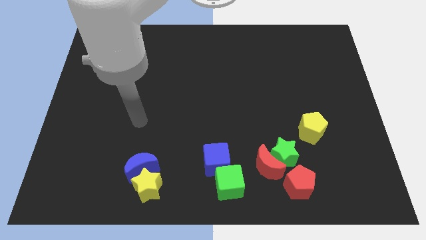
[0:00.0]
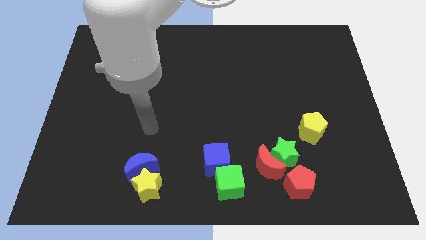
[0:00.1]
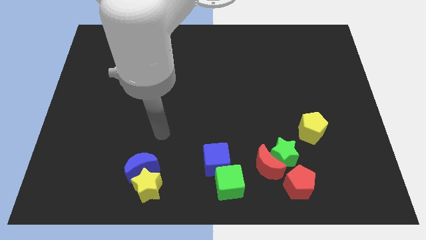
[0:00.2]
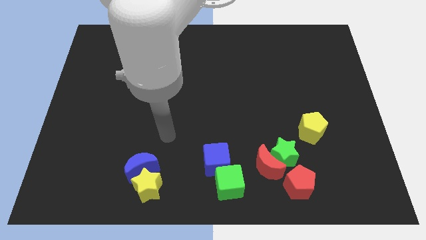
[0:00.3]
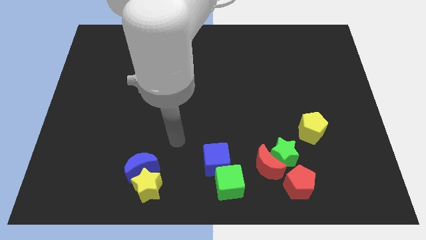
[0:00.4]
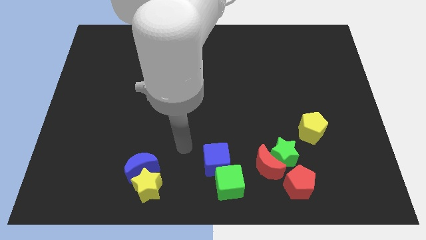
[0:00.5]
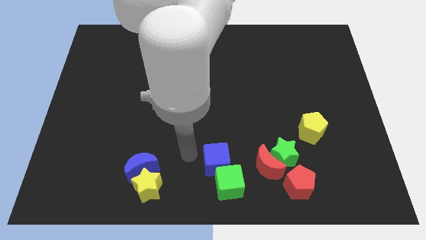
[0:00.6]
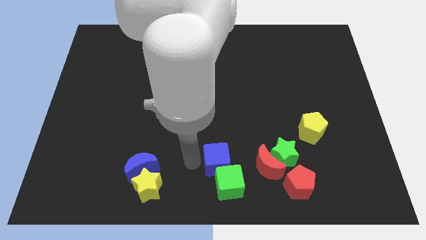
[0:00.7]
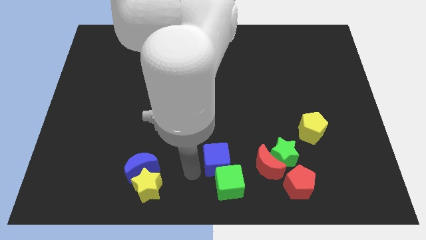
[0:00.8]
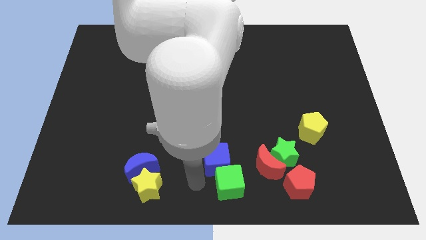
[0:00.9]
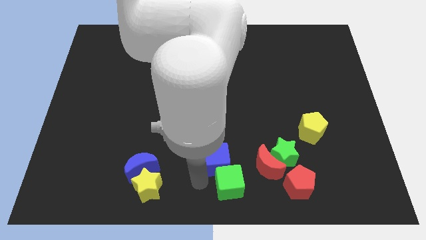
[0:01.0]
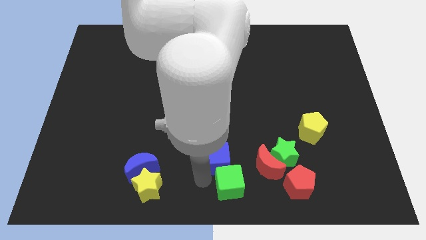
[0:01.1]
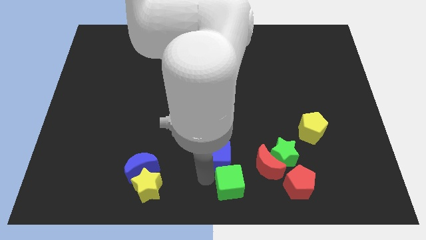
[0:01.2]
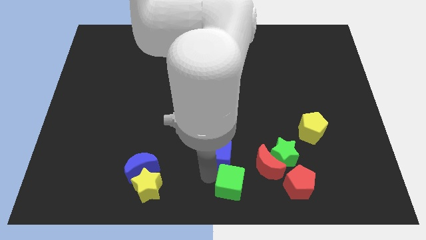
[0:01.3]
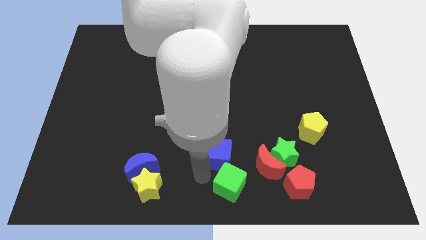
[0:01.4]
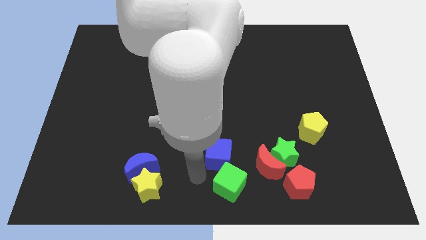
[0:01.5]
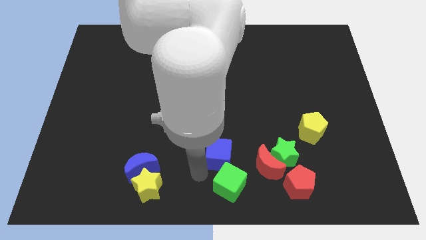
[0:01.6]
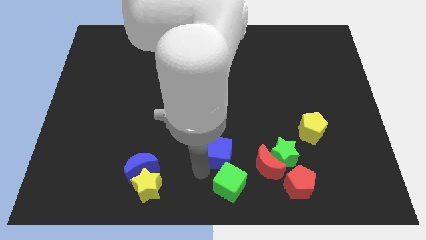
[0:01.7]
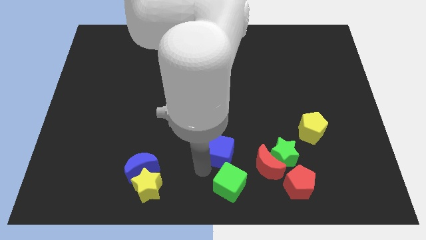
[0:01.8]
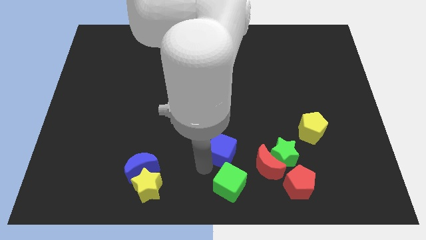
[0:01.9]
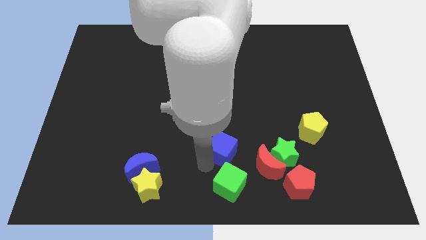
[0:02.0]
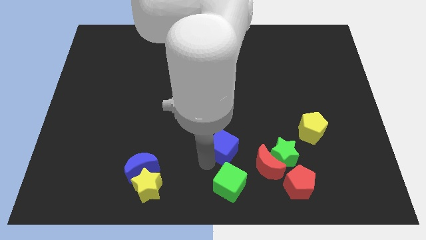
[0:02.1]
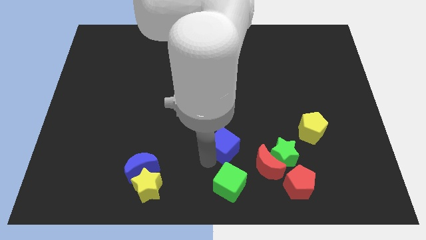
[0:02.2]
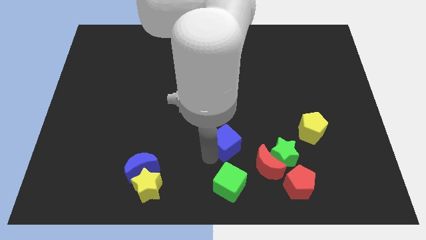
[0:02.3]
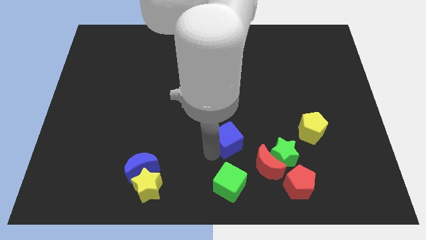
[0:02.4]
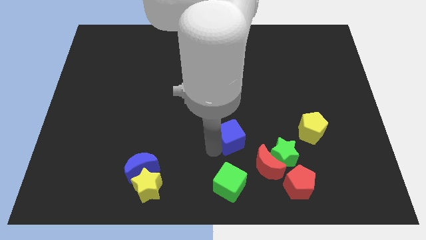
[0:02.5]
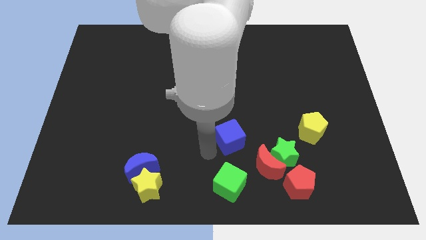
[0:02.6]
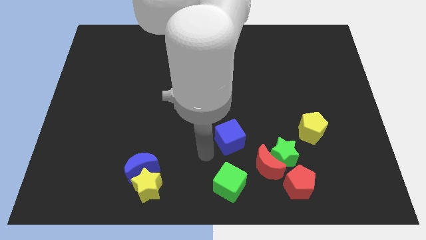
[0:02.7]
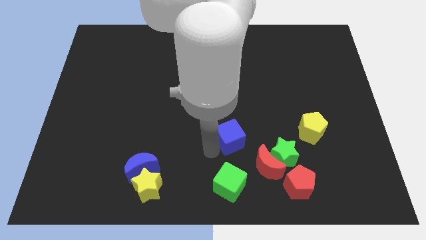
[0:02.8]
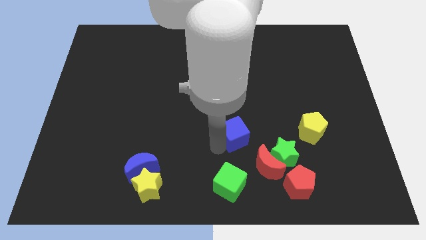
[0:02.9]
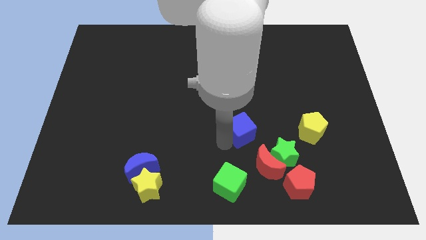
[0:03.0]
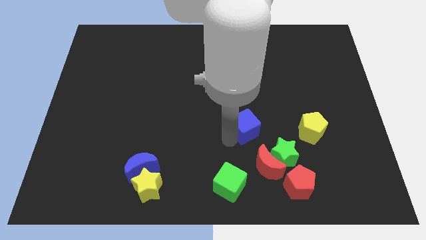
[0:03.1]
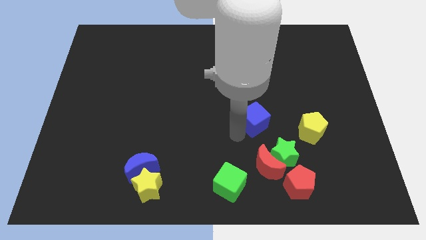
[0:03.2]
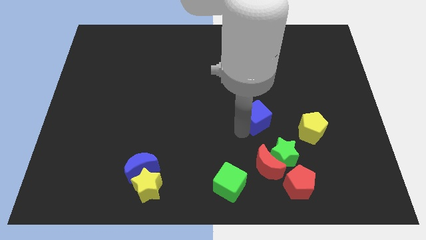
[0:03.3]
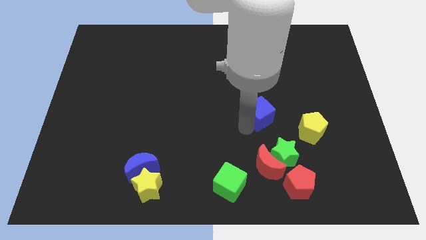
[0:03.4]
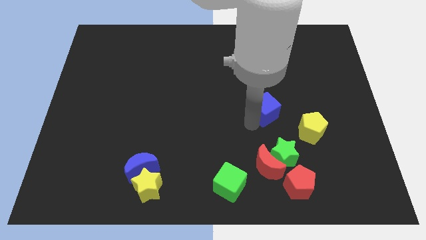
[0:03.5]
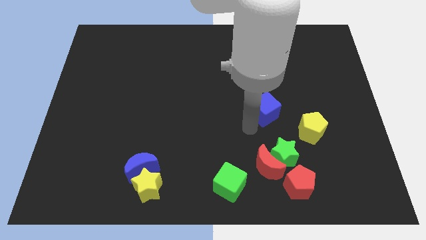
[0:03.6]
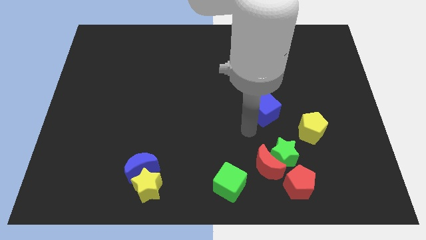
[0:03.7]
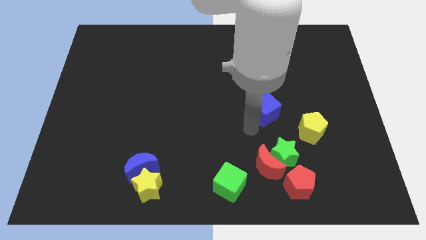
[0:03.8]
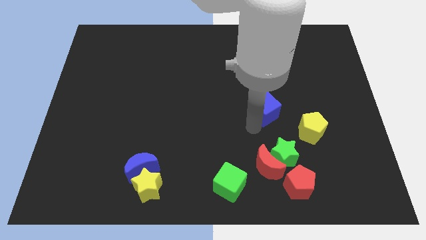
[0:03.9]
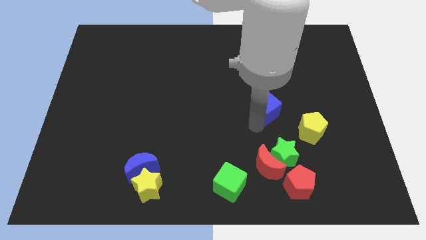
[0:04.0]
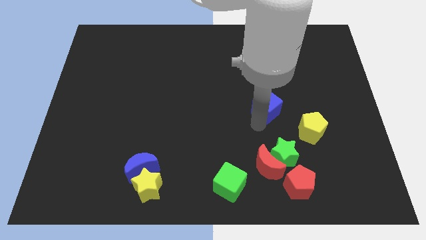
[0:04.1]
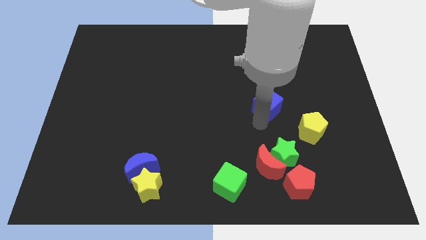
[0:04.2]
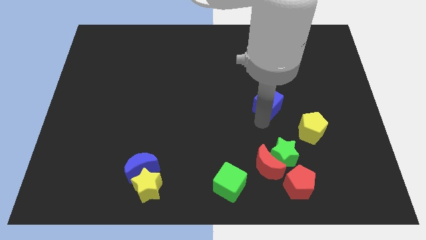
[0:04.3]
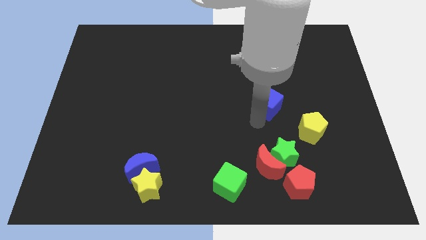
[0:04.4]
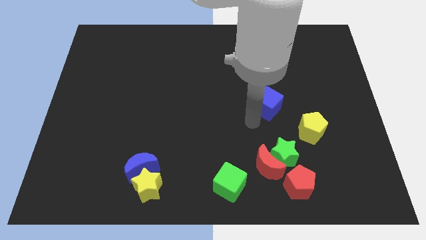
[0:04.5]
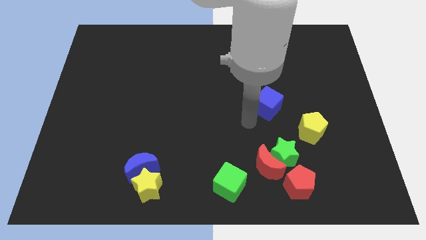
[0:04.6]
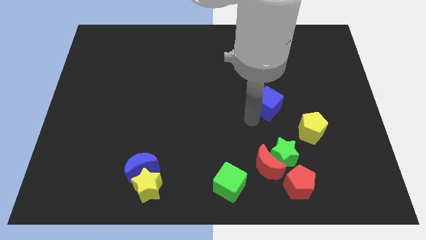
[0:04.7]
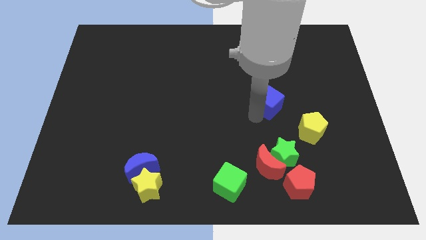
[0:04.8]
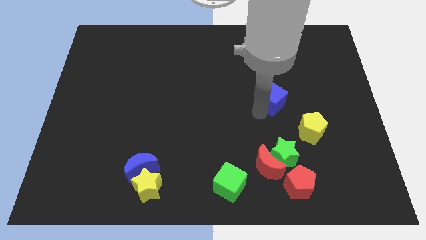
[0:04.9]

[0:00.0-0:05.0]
push the blue cube diagonally upwards and right

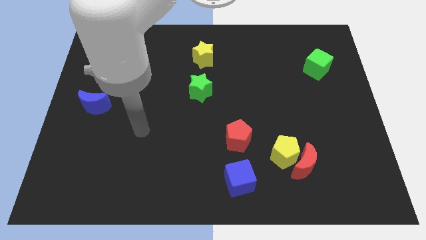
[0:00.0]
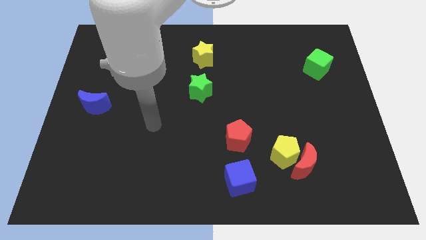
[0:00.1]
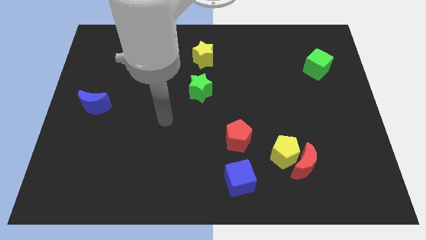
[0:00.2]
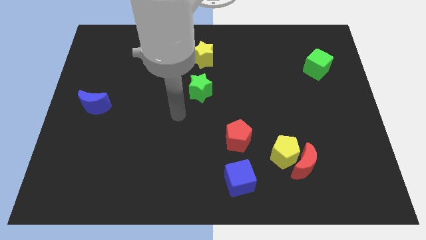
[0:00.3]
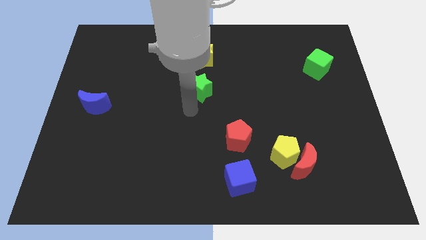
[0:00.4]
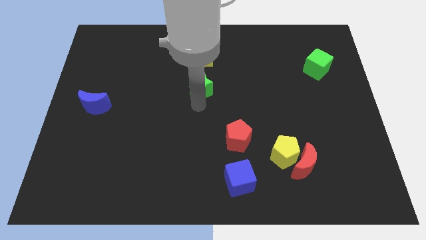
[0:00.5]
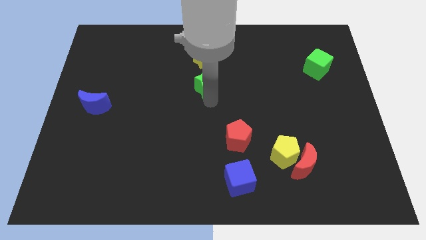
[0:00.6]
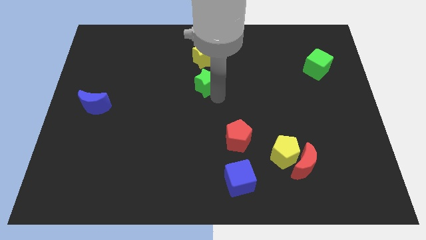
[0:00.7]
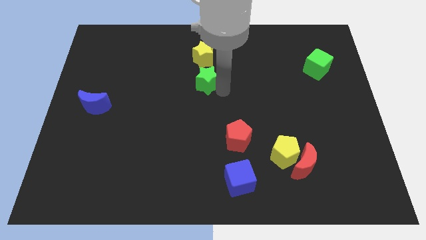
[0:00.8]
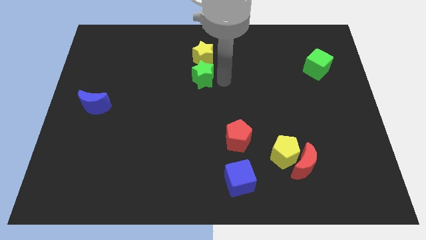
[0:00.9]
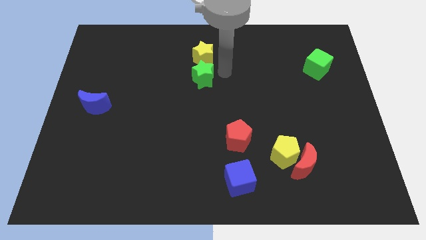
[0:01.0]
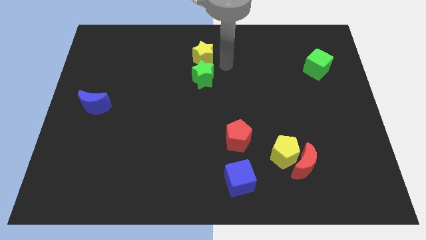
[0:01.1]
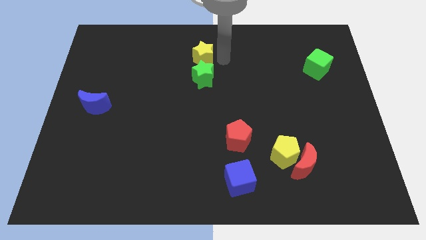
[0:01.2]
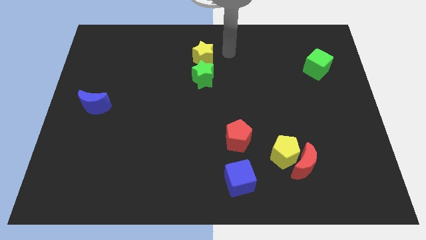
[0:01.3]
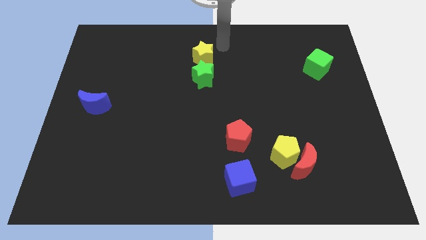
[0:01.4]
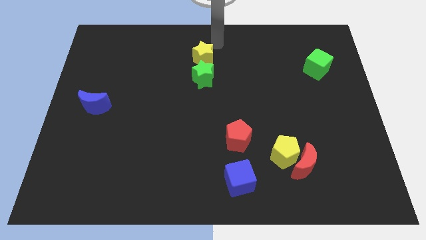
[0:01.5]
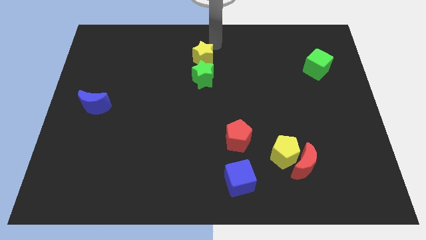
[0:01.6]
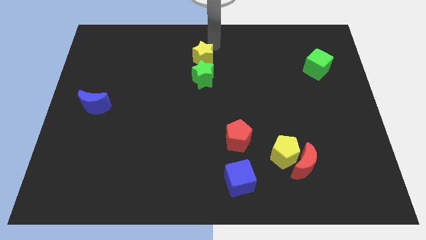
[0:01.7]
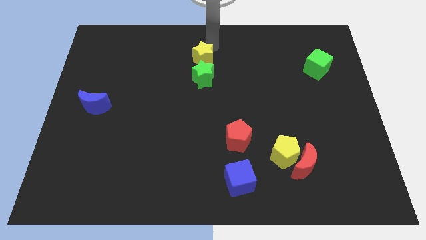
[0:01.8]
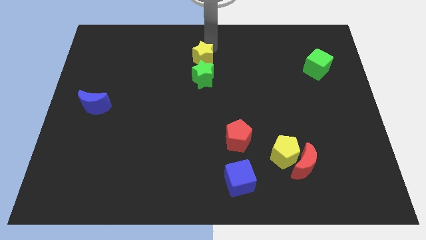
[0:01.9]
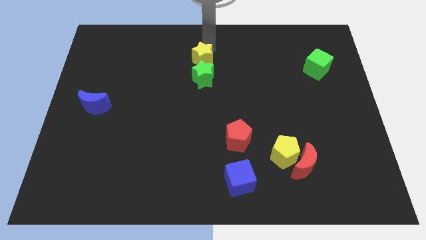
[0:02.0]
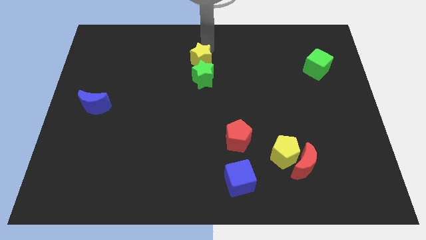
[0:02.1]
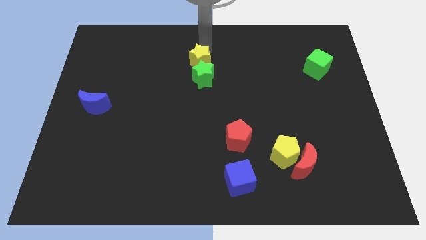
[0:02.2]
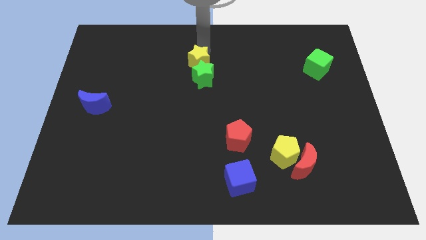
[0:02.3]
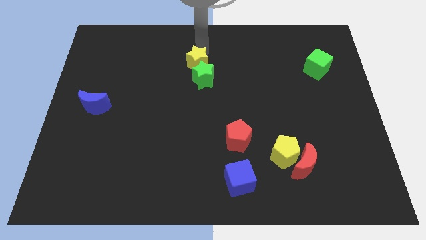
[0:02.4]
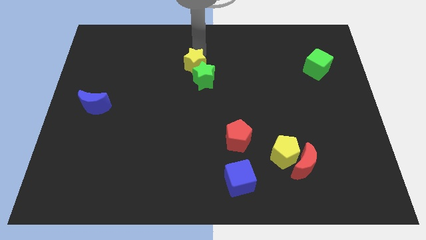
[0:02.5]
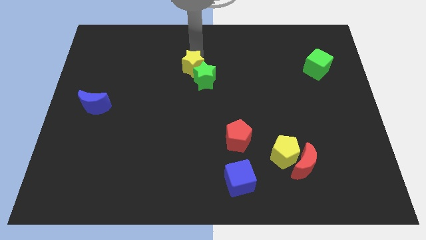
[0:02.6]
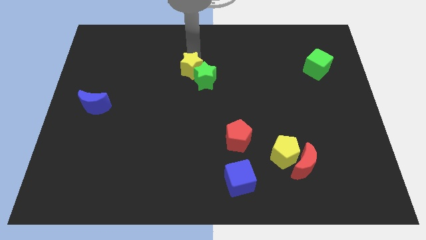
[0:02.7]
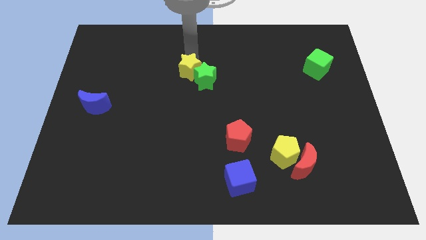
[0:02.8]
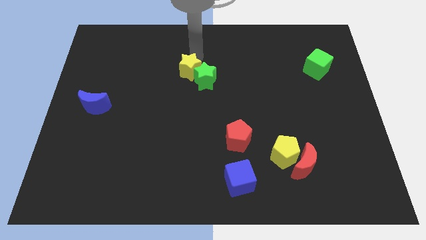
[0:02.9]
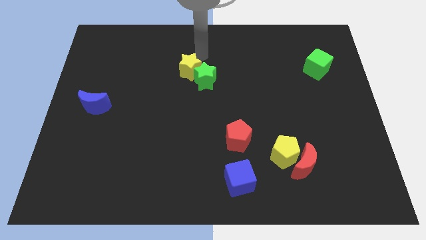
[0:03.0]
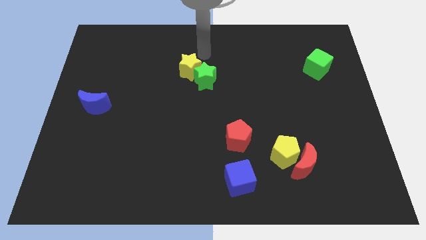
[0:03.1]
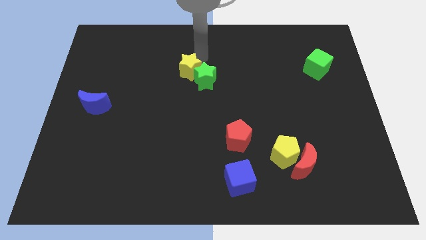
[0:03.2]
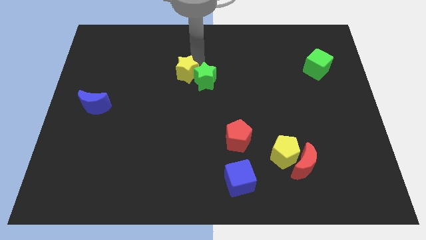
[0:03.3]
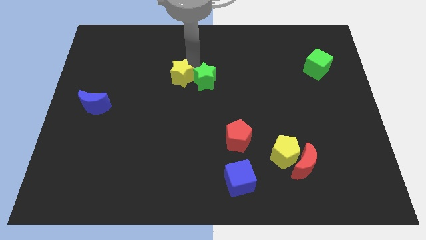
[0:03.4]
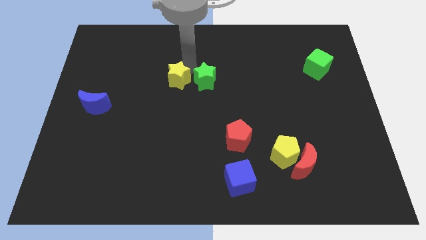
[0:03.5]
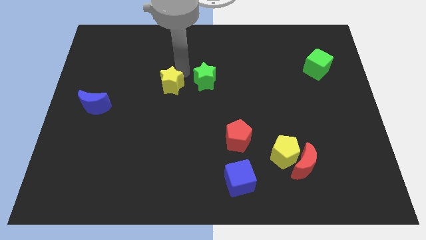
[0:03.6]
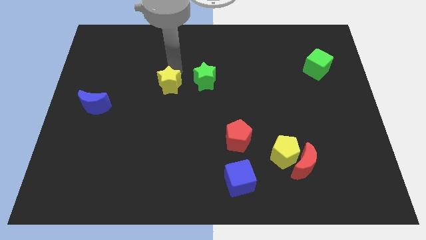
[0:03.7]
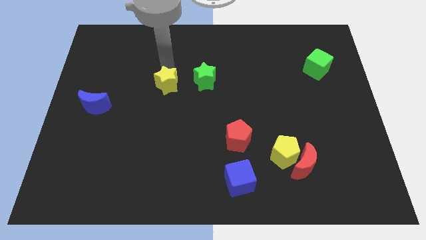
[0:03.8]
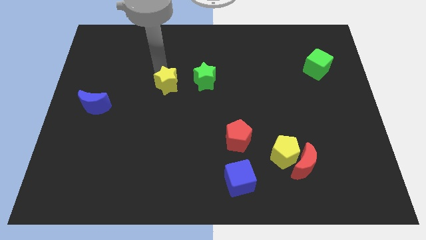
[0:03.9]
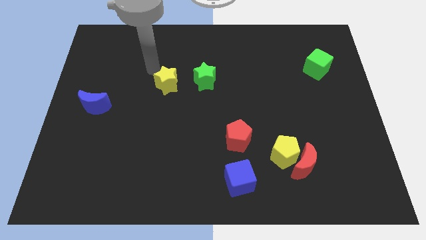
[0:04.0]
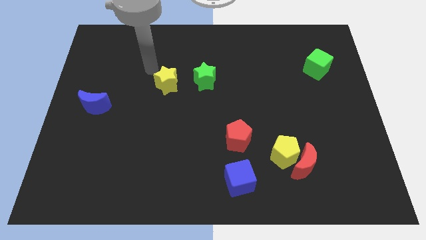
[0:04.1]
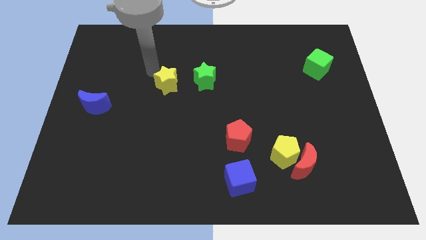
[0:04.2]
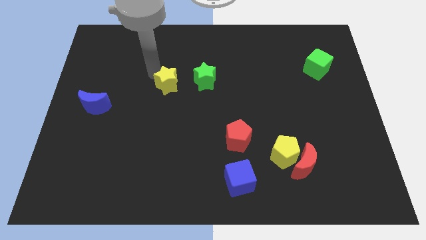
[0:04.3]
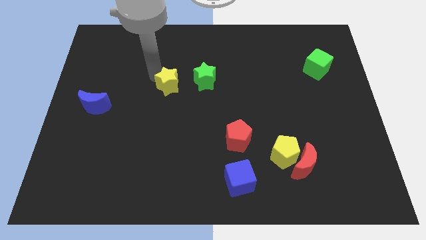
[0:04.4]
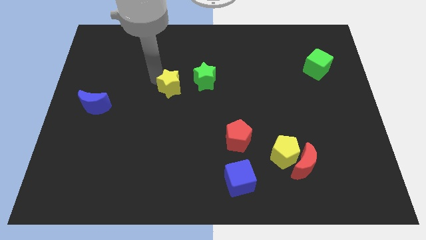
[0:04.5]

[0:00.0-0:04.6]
move the yellow star somewhat down
